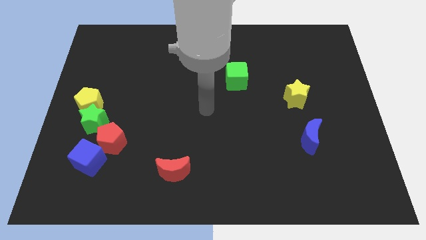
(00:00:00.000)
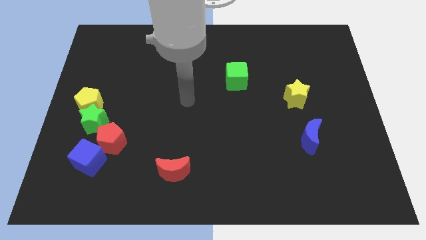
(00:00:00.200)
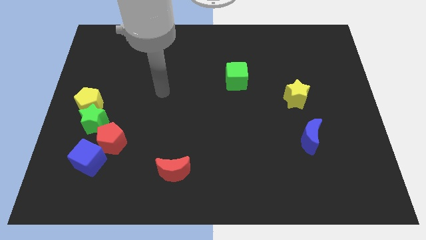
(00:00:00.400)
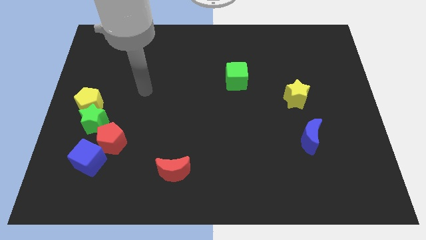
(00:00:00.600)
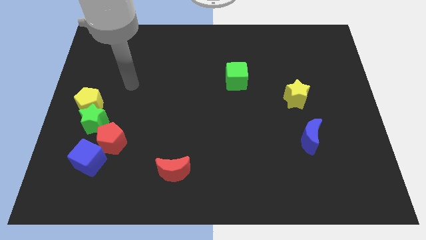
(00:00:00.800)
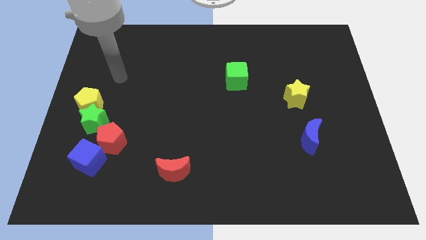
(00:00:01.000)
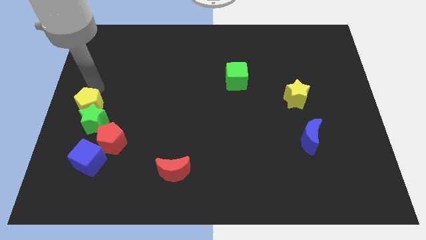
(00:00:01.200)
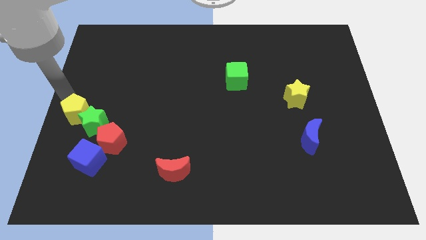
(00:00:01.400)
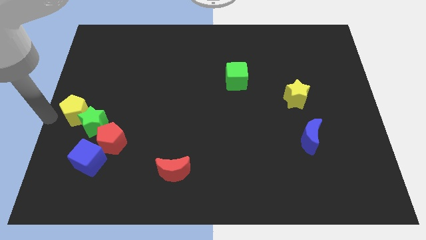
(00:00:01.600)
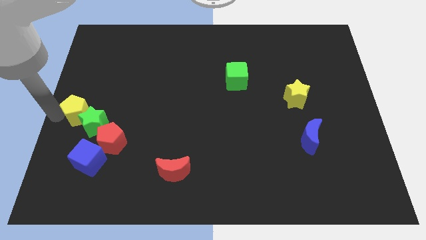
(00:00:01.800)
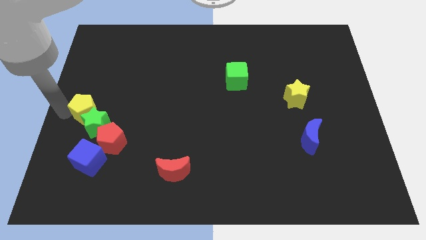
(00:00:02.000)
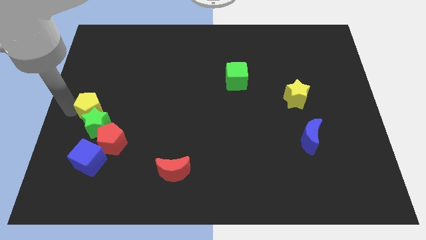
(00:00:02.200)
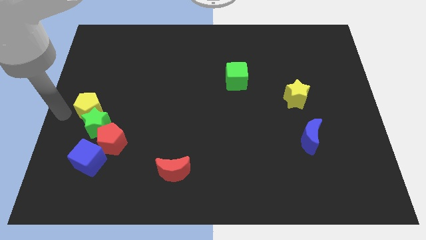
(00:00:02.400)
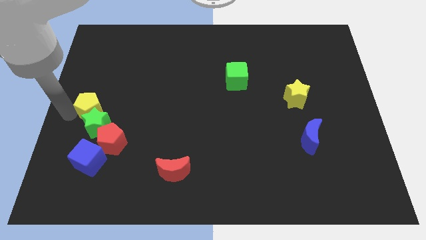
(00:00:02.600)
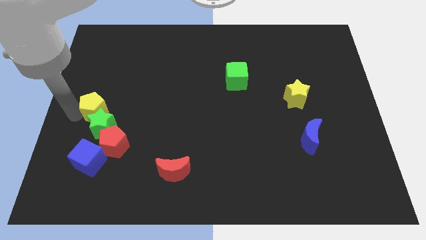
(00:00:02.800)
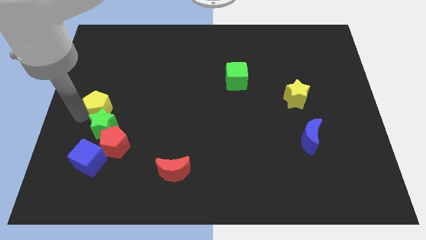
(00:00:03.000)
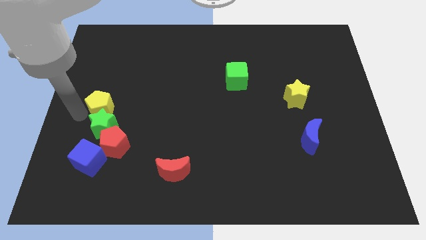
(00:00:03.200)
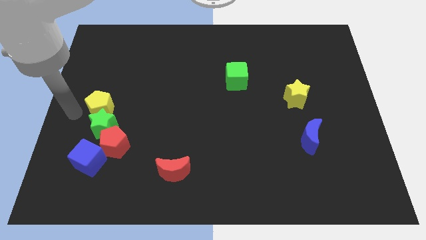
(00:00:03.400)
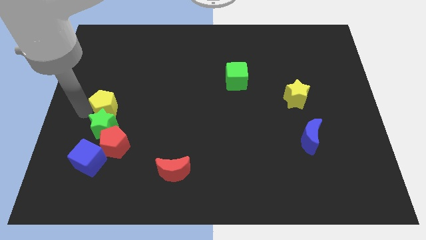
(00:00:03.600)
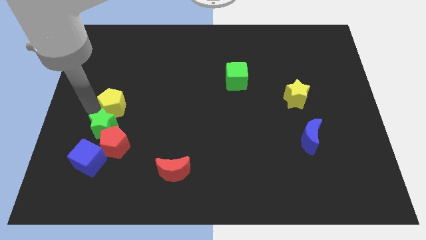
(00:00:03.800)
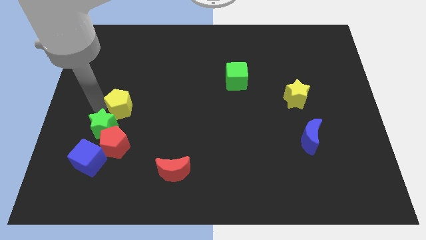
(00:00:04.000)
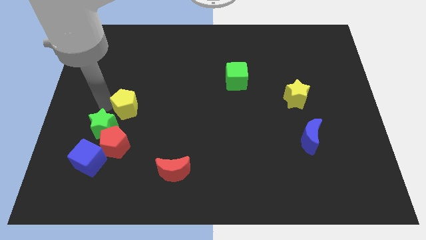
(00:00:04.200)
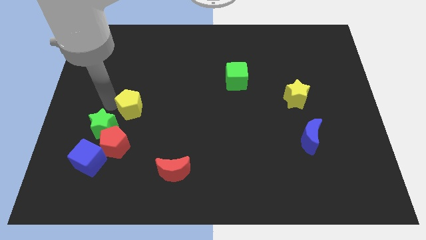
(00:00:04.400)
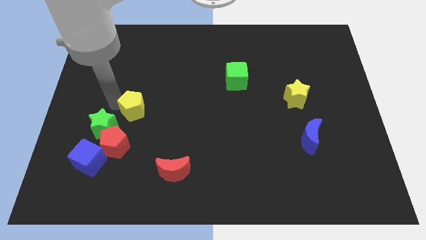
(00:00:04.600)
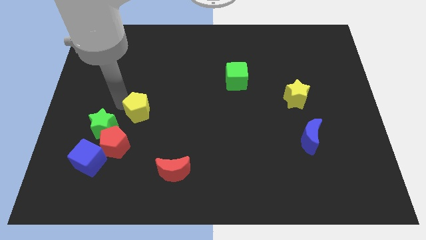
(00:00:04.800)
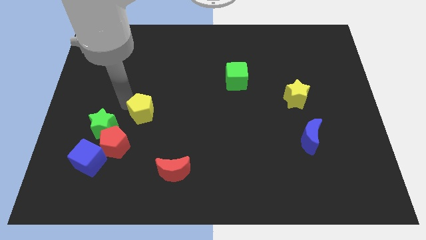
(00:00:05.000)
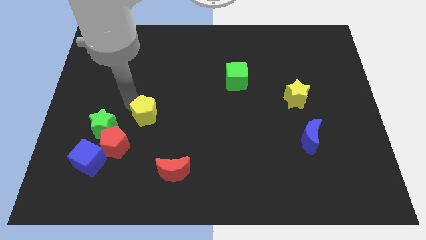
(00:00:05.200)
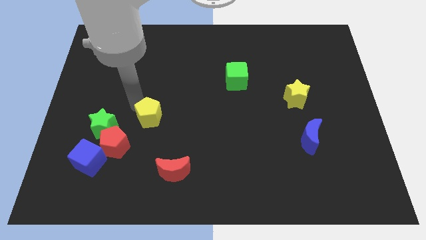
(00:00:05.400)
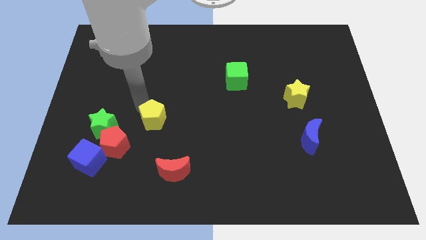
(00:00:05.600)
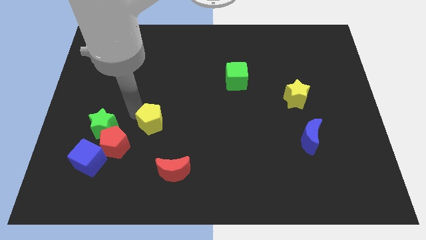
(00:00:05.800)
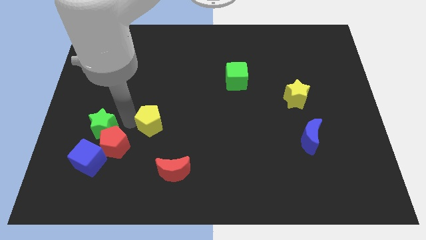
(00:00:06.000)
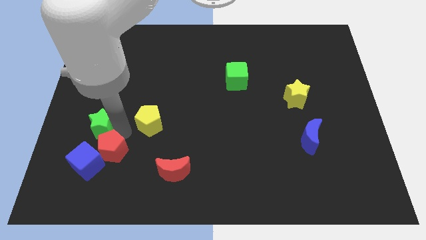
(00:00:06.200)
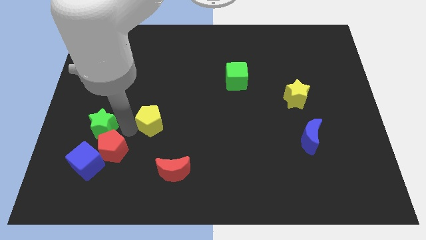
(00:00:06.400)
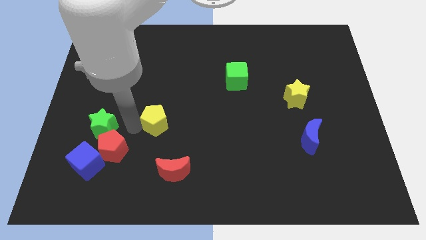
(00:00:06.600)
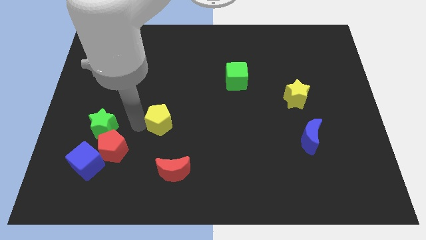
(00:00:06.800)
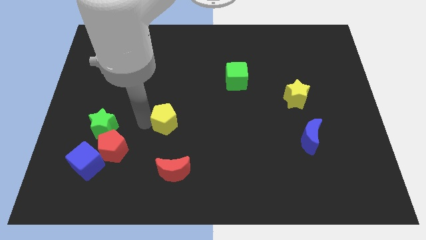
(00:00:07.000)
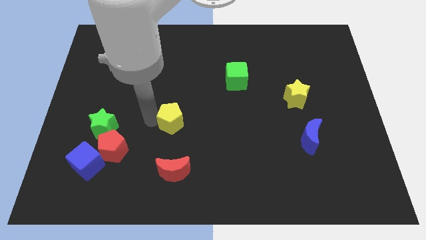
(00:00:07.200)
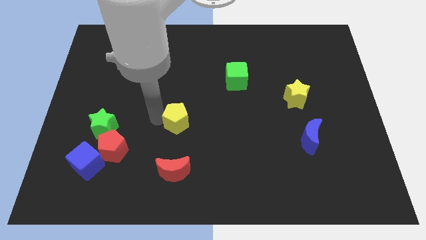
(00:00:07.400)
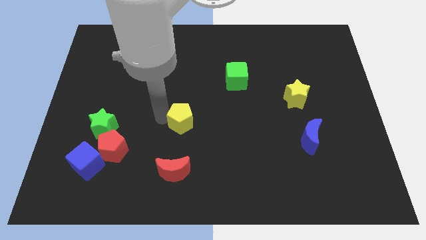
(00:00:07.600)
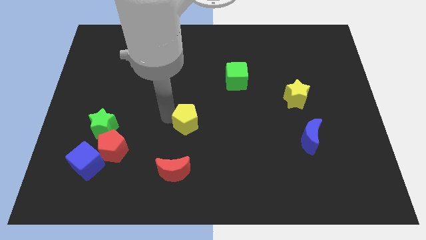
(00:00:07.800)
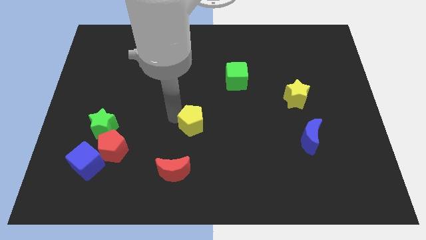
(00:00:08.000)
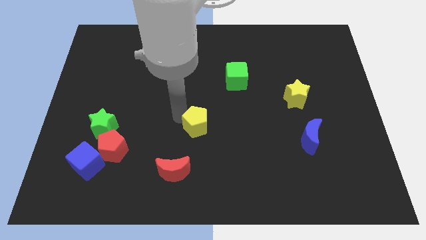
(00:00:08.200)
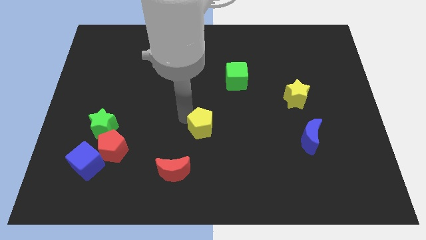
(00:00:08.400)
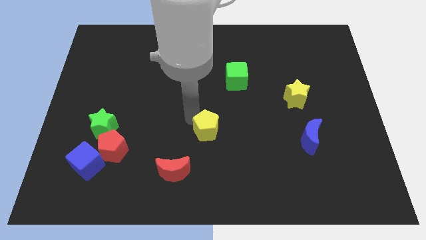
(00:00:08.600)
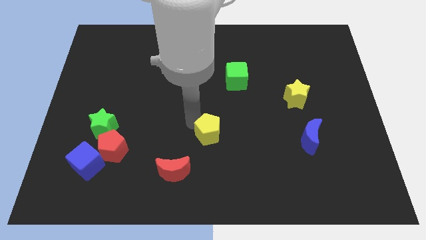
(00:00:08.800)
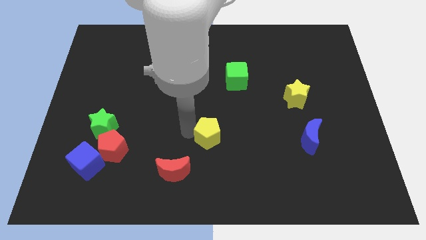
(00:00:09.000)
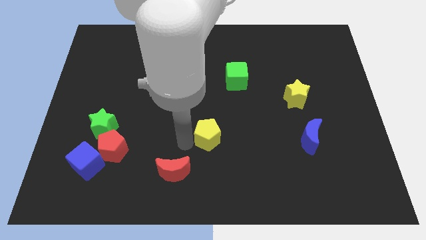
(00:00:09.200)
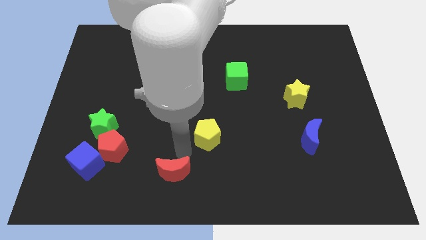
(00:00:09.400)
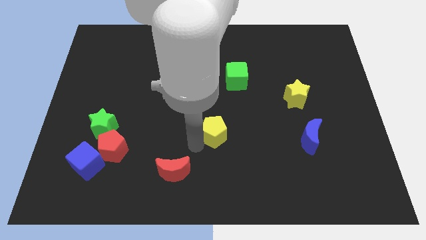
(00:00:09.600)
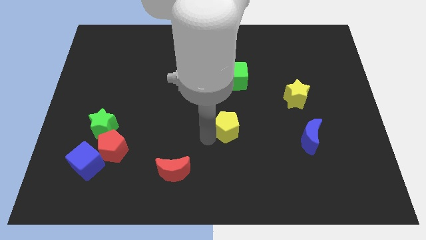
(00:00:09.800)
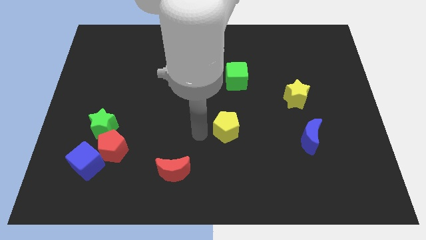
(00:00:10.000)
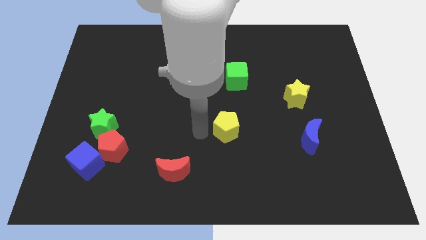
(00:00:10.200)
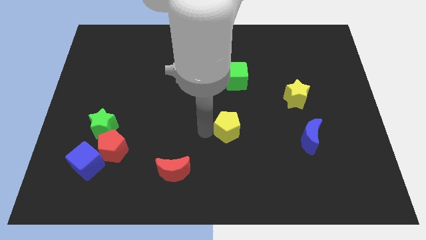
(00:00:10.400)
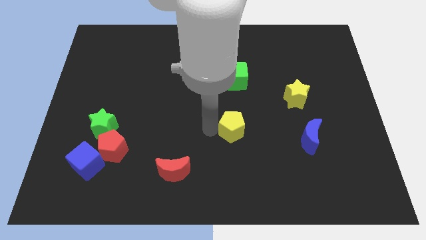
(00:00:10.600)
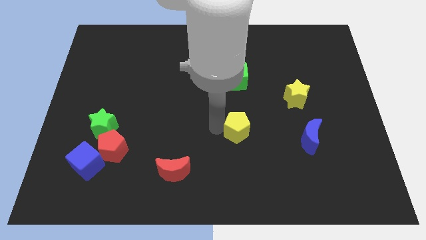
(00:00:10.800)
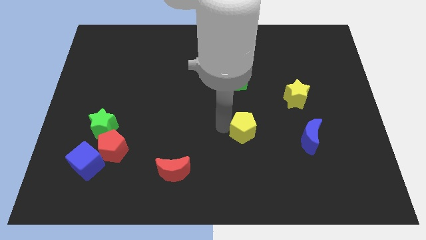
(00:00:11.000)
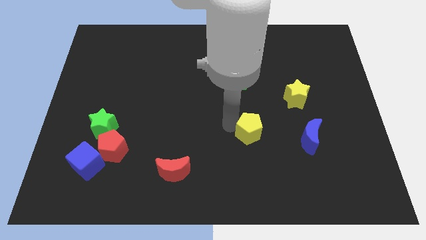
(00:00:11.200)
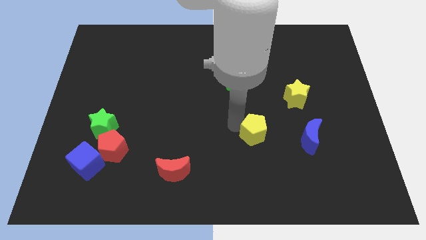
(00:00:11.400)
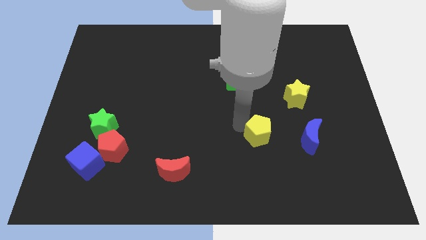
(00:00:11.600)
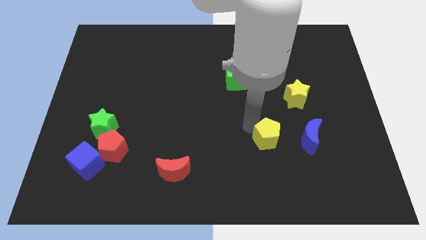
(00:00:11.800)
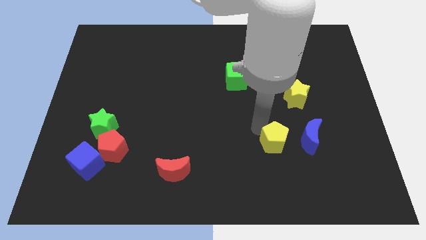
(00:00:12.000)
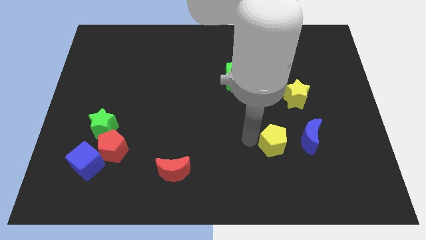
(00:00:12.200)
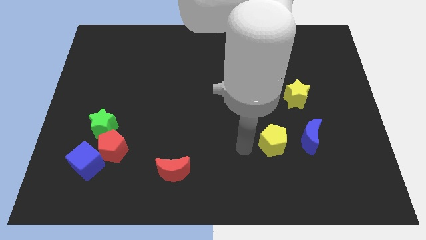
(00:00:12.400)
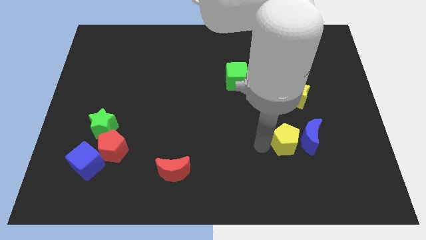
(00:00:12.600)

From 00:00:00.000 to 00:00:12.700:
slide the yellow pentagon close to the blue moon

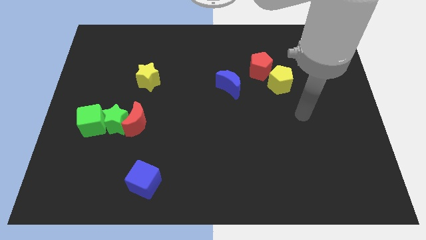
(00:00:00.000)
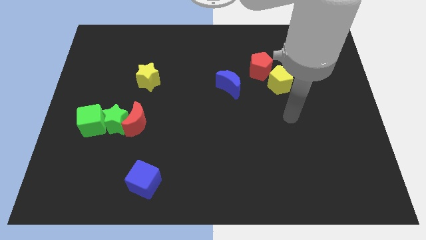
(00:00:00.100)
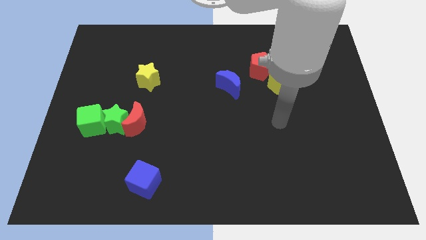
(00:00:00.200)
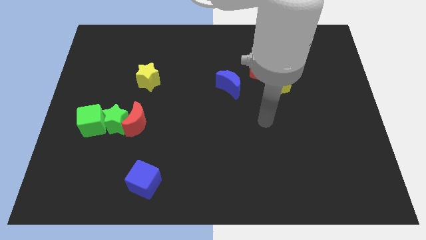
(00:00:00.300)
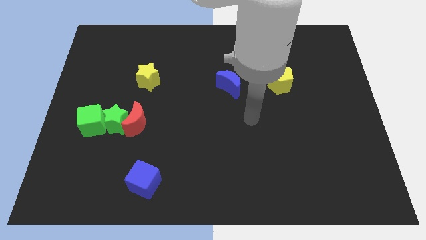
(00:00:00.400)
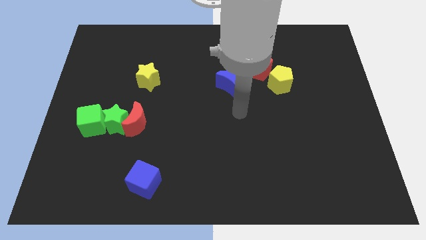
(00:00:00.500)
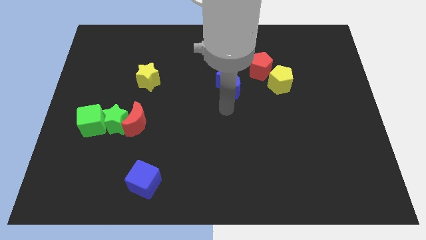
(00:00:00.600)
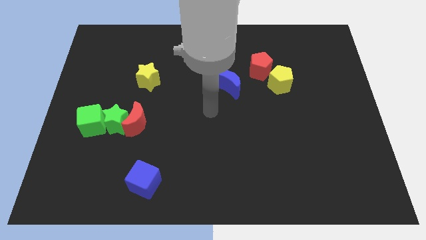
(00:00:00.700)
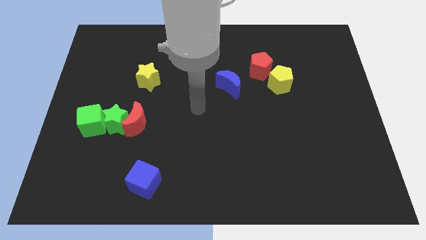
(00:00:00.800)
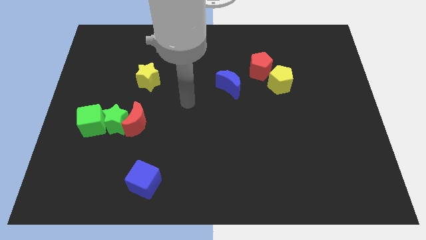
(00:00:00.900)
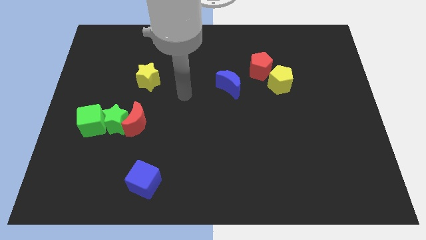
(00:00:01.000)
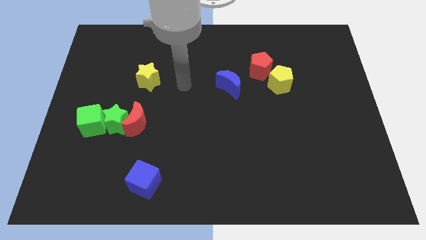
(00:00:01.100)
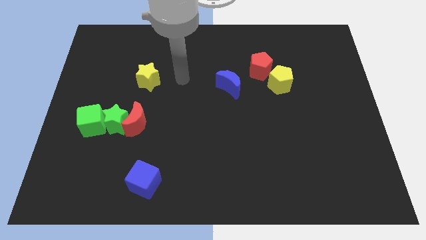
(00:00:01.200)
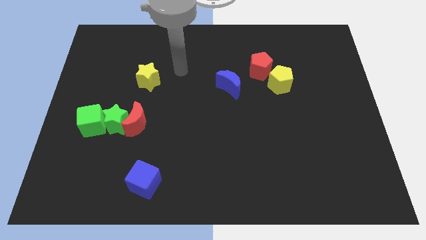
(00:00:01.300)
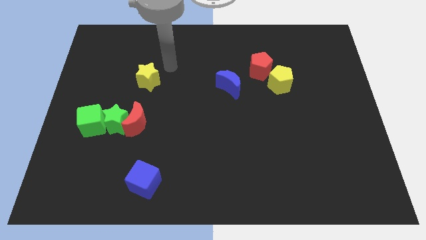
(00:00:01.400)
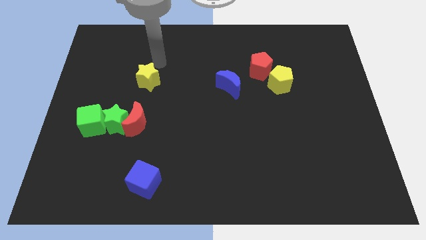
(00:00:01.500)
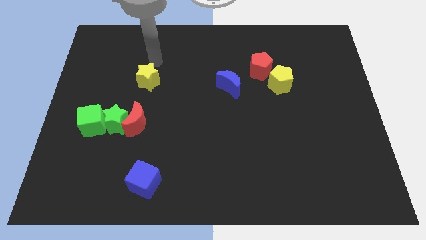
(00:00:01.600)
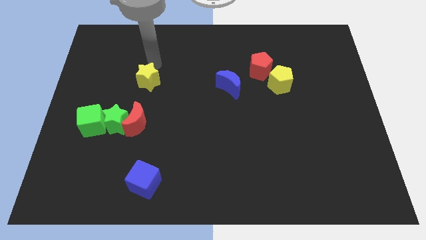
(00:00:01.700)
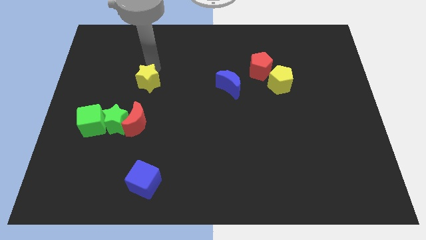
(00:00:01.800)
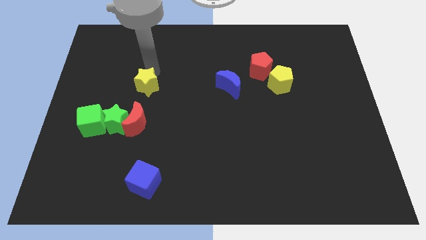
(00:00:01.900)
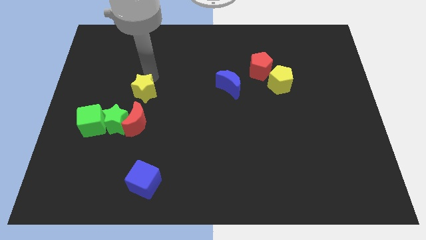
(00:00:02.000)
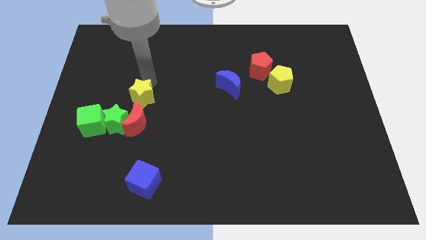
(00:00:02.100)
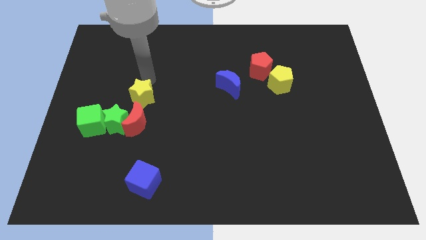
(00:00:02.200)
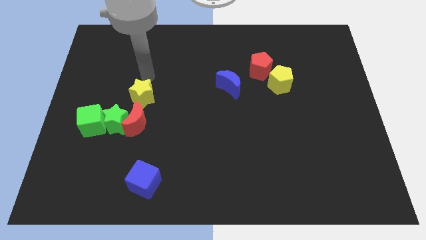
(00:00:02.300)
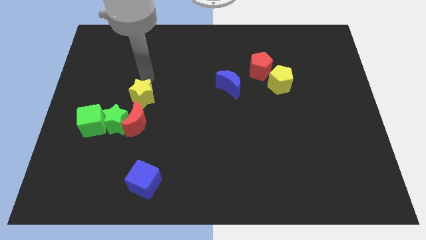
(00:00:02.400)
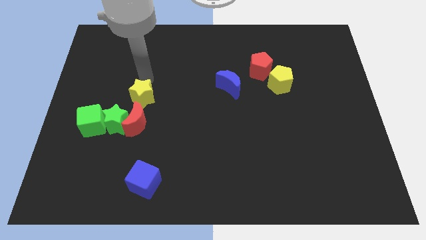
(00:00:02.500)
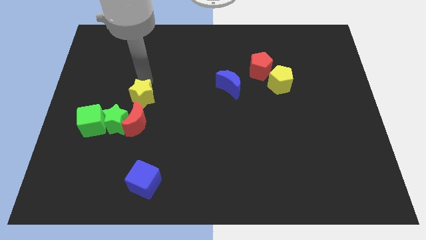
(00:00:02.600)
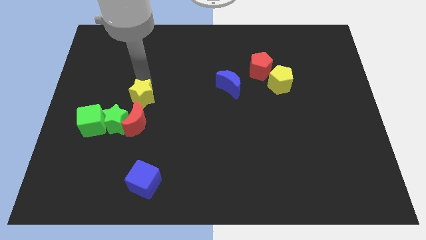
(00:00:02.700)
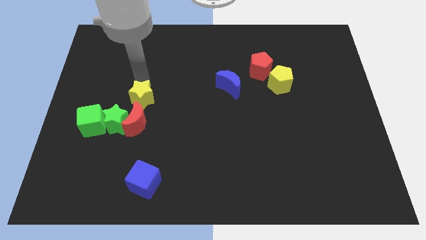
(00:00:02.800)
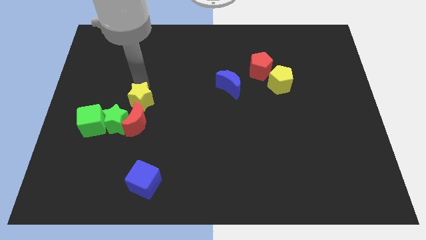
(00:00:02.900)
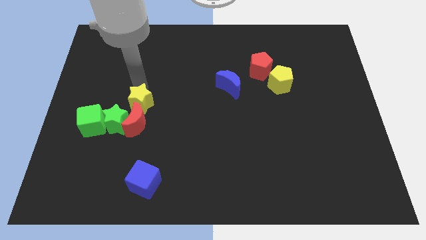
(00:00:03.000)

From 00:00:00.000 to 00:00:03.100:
put the yellow star towards the red moon
